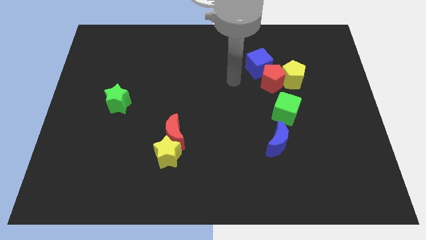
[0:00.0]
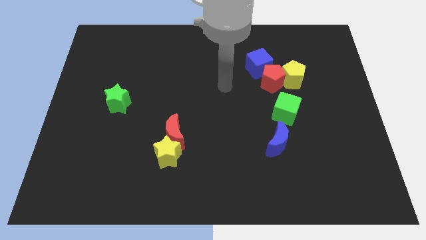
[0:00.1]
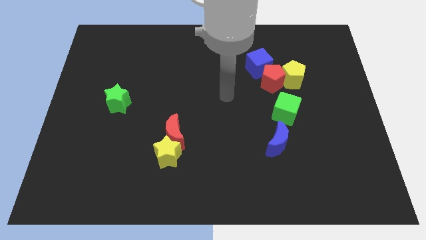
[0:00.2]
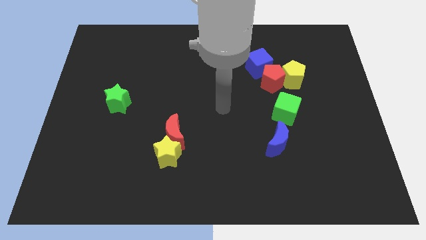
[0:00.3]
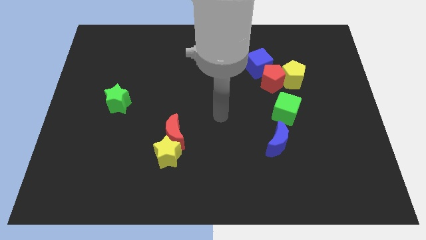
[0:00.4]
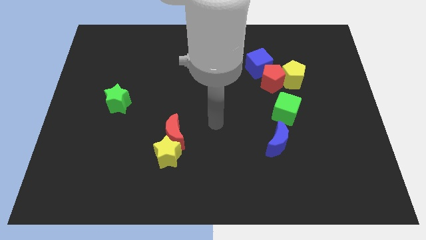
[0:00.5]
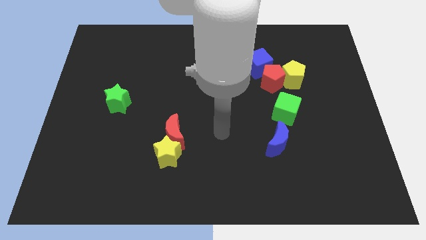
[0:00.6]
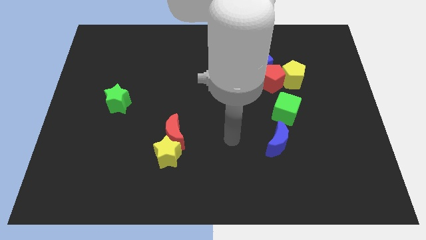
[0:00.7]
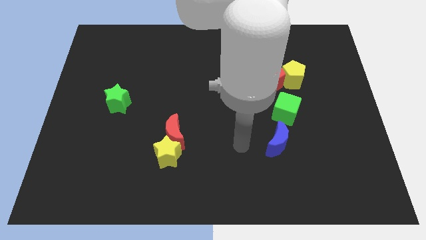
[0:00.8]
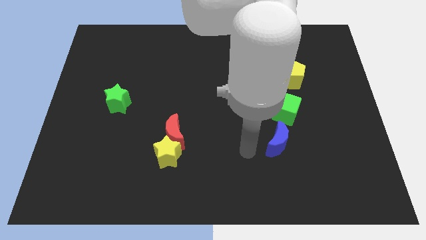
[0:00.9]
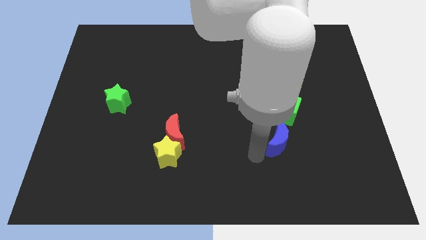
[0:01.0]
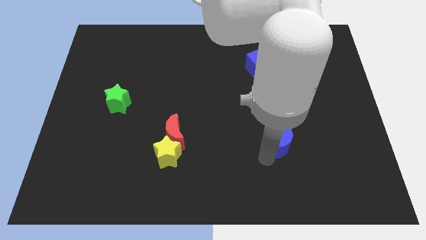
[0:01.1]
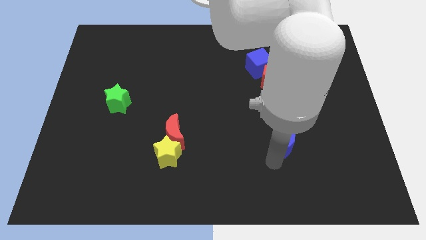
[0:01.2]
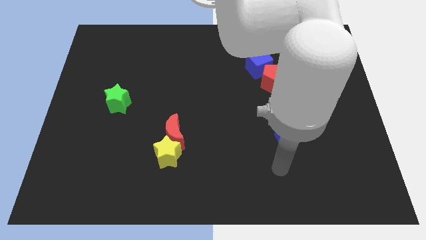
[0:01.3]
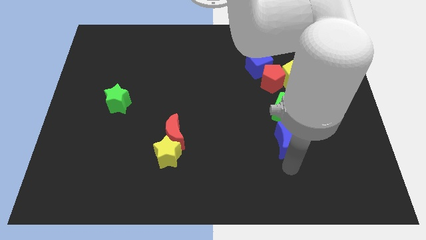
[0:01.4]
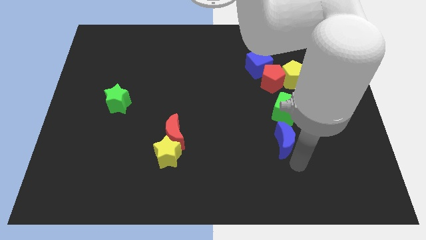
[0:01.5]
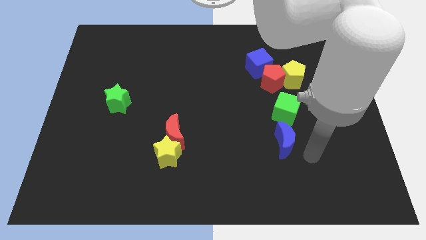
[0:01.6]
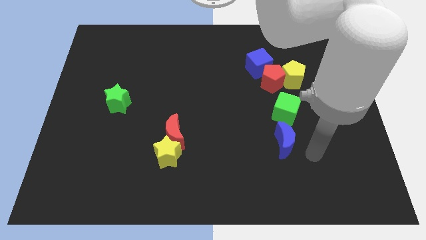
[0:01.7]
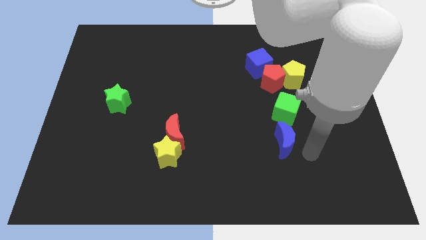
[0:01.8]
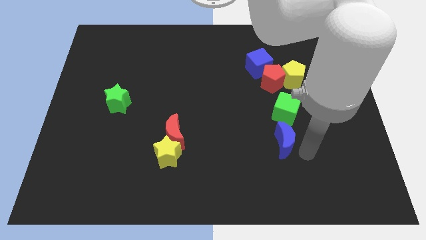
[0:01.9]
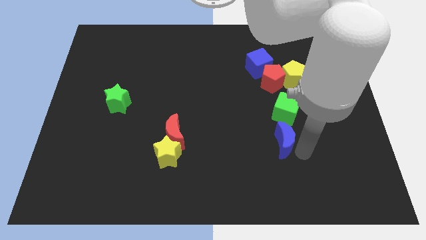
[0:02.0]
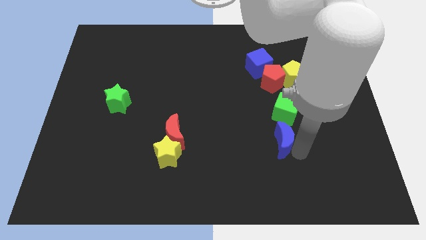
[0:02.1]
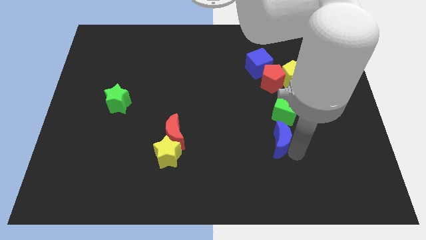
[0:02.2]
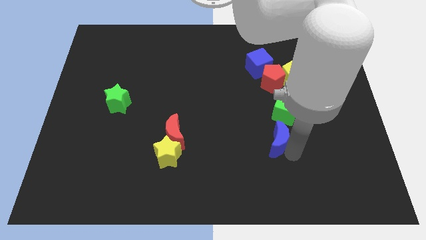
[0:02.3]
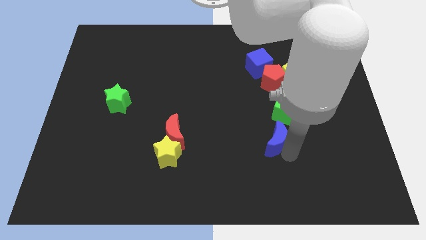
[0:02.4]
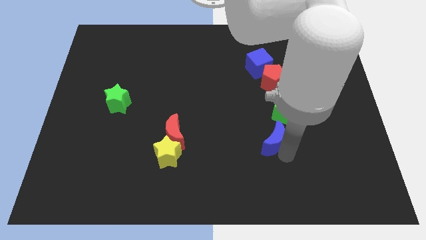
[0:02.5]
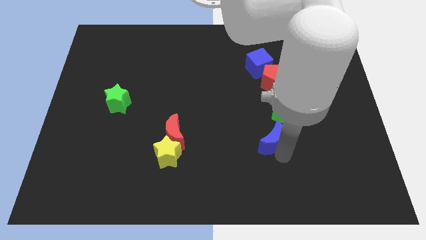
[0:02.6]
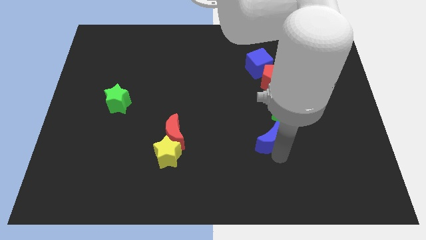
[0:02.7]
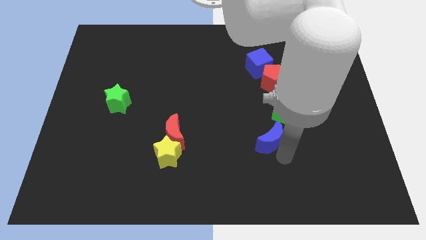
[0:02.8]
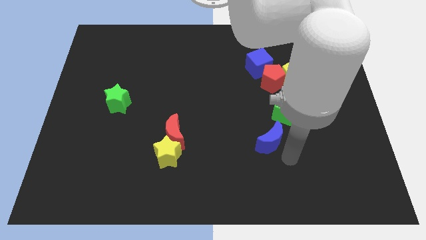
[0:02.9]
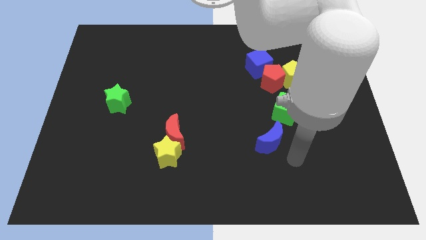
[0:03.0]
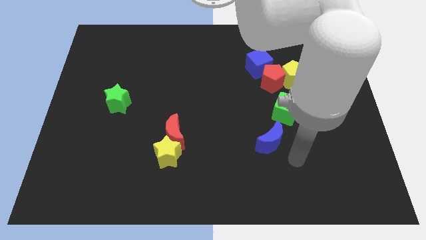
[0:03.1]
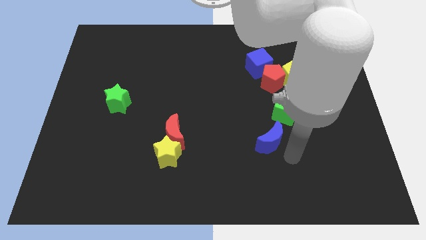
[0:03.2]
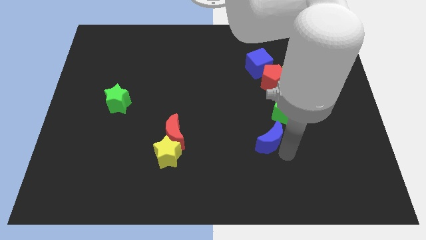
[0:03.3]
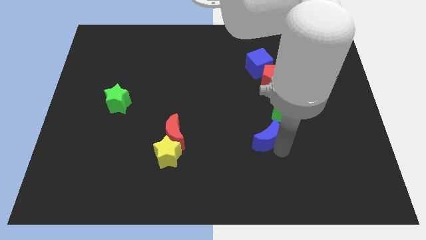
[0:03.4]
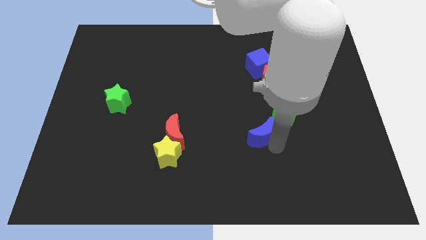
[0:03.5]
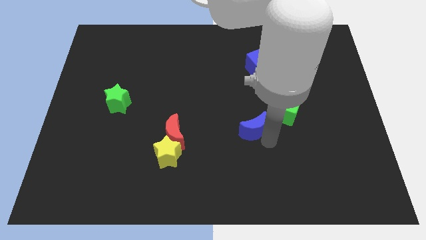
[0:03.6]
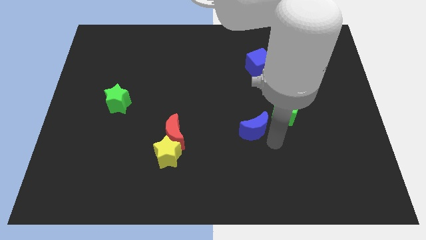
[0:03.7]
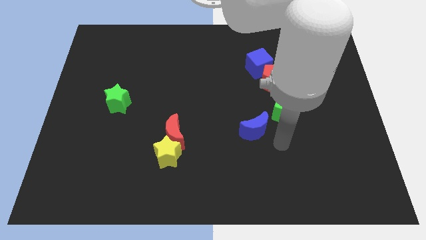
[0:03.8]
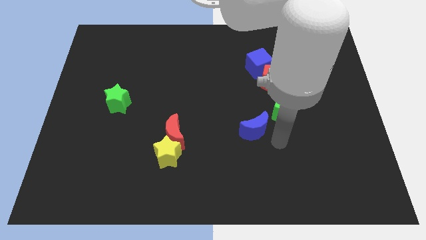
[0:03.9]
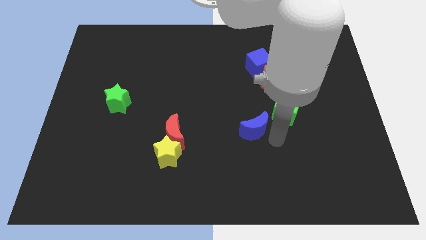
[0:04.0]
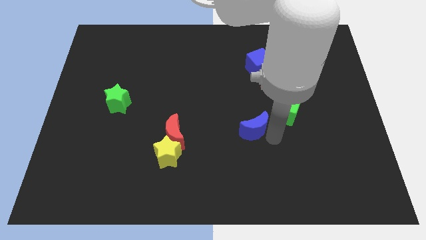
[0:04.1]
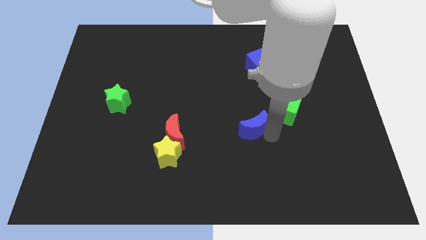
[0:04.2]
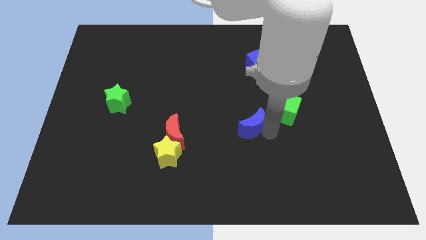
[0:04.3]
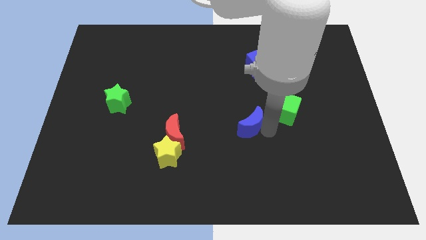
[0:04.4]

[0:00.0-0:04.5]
move the blue moon a bit upwards and left diagonally

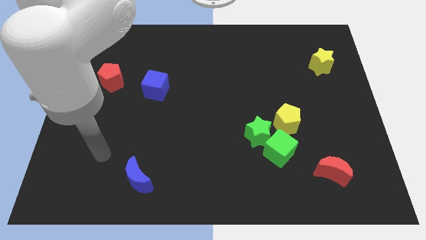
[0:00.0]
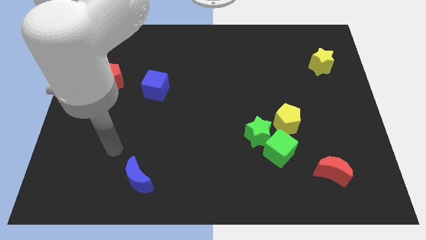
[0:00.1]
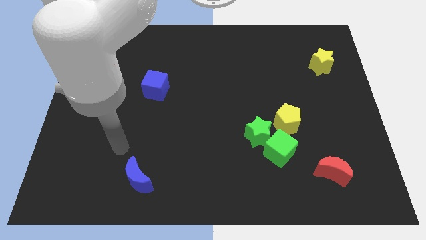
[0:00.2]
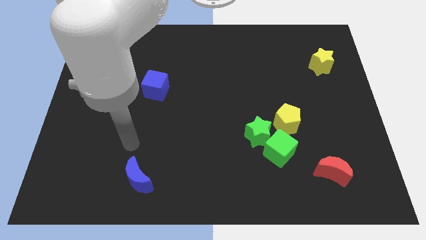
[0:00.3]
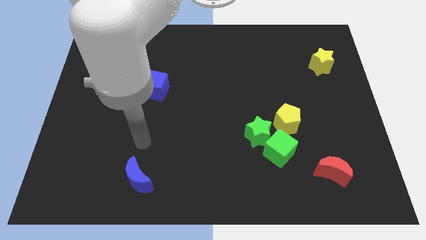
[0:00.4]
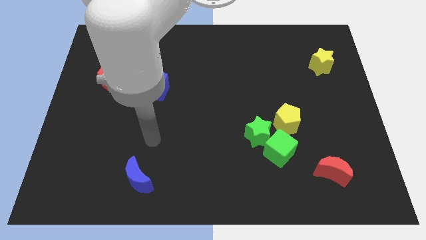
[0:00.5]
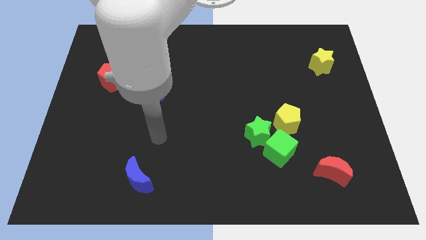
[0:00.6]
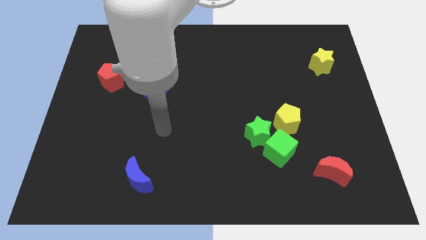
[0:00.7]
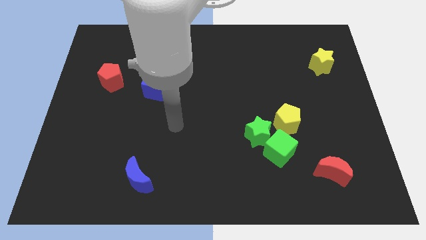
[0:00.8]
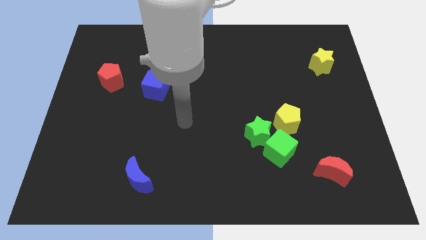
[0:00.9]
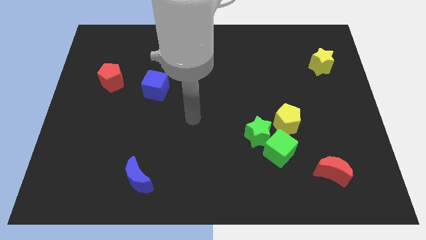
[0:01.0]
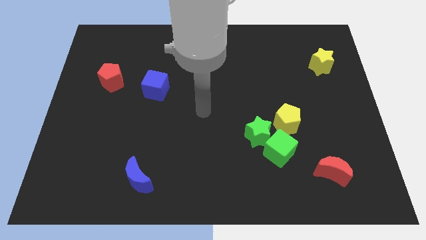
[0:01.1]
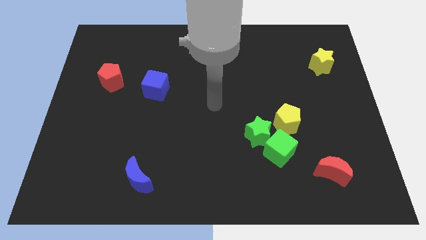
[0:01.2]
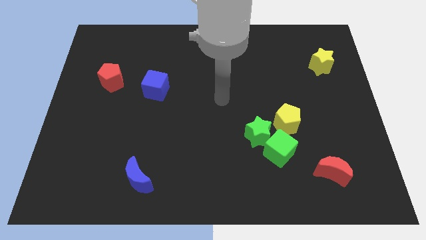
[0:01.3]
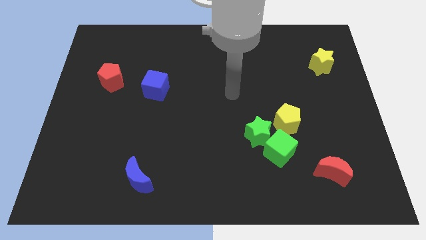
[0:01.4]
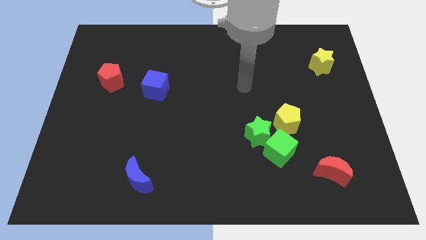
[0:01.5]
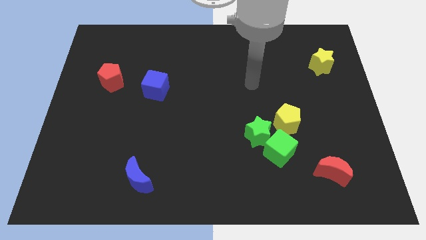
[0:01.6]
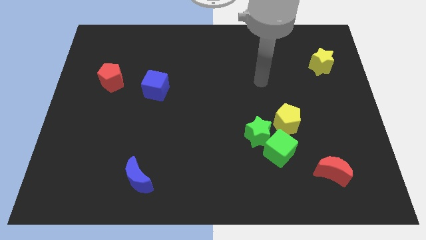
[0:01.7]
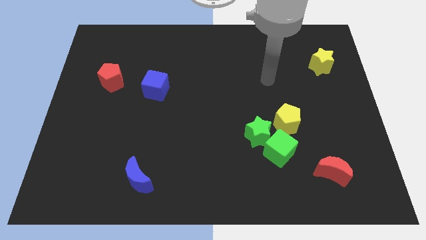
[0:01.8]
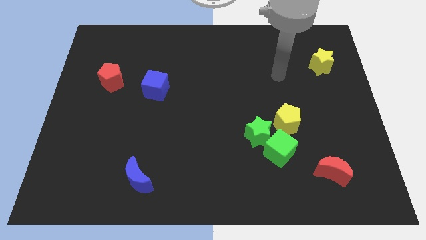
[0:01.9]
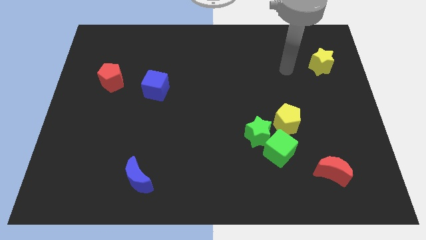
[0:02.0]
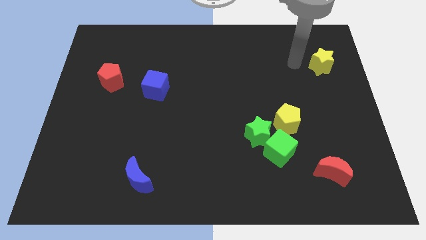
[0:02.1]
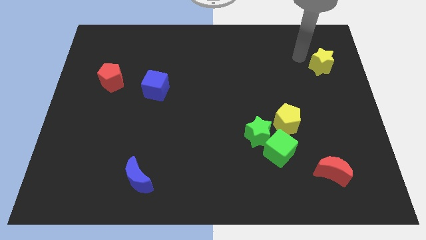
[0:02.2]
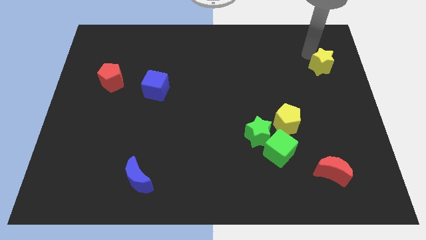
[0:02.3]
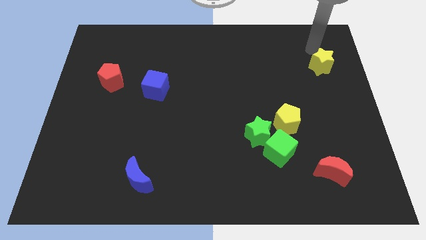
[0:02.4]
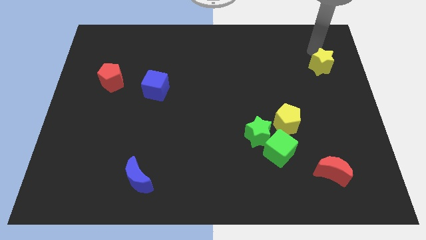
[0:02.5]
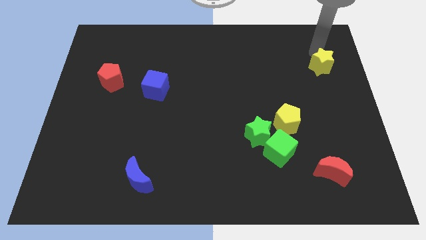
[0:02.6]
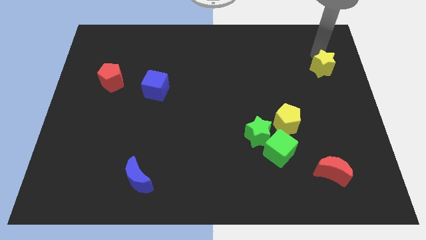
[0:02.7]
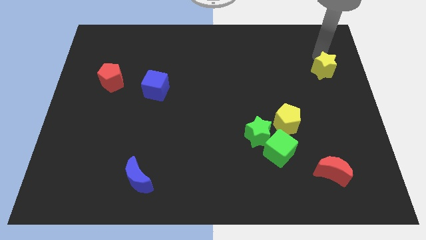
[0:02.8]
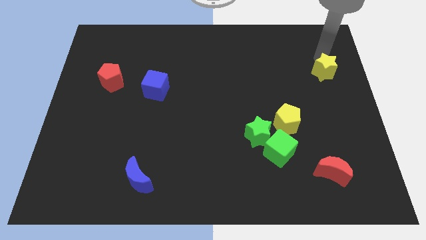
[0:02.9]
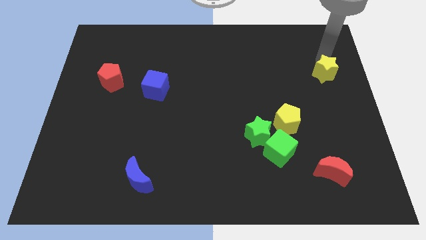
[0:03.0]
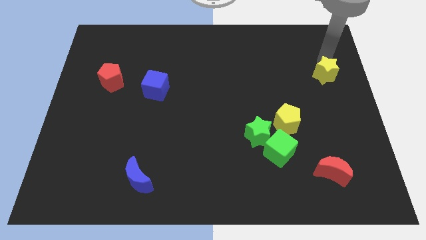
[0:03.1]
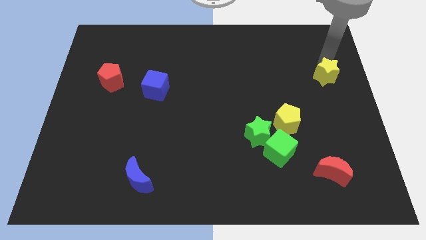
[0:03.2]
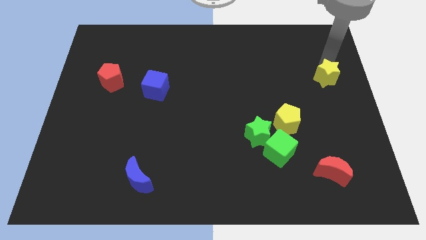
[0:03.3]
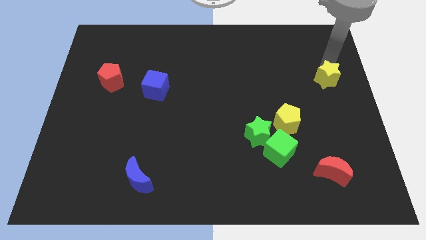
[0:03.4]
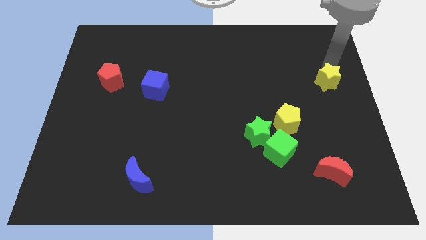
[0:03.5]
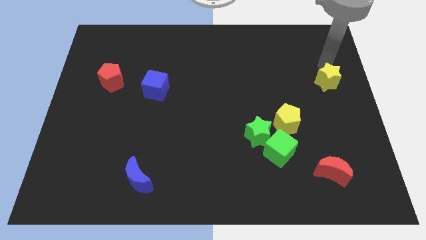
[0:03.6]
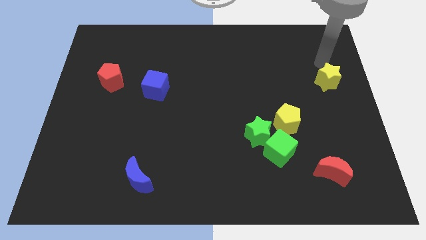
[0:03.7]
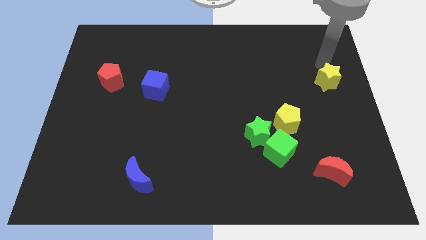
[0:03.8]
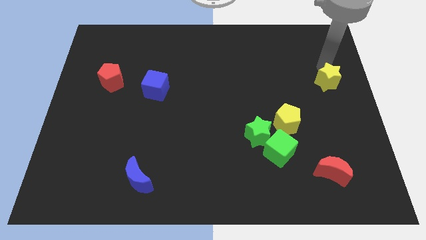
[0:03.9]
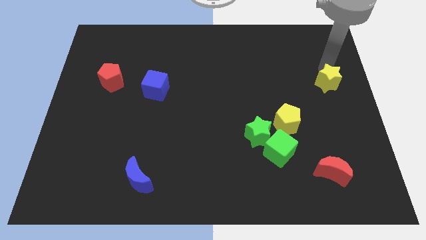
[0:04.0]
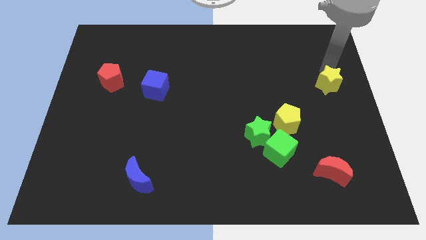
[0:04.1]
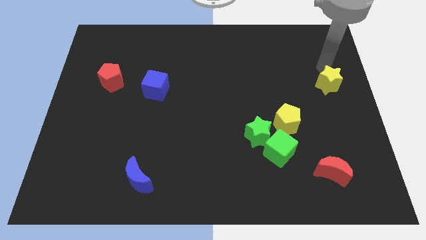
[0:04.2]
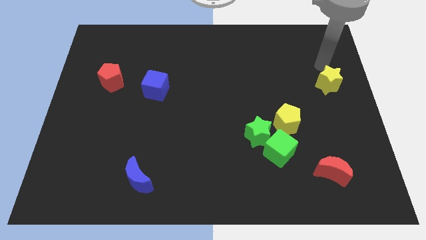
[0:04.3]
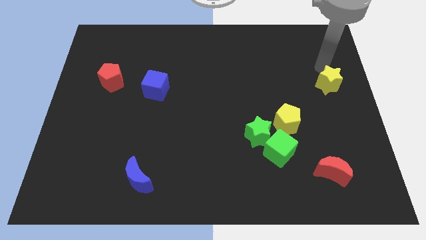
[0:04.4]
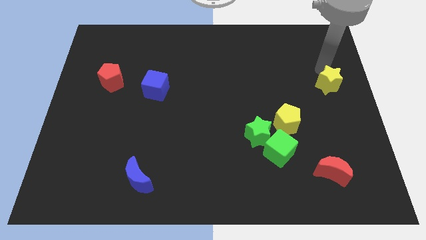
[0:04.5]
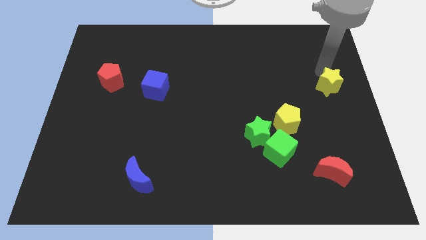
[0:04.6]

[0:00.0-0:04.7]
move the yellow star down somewhat
